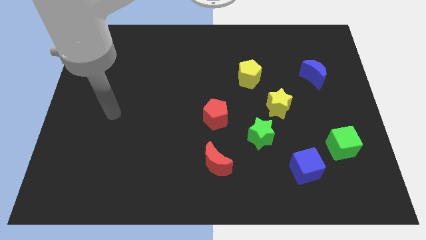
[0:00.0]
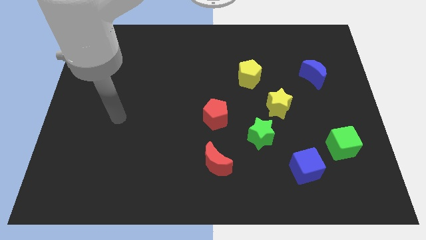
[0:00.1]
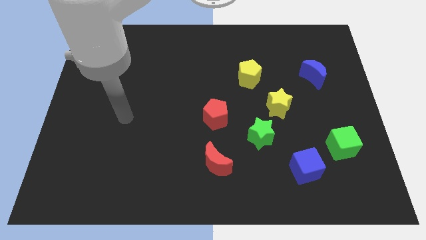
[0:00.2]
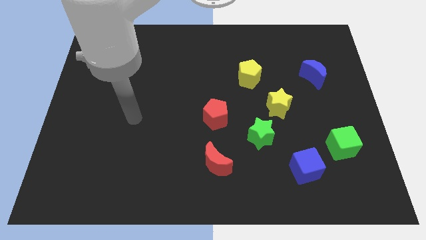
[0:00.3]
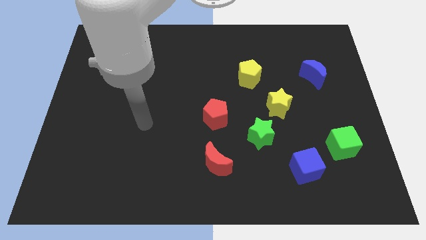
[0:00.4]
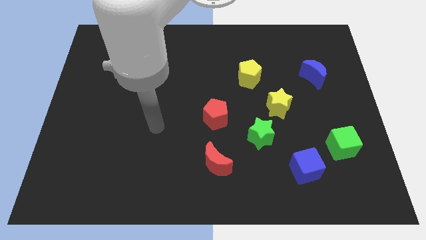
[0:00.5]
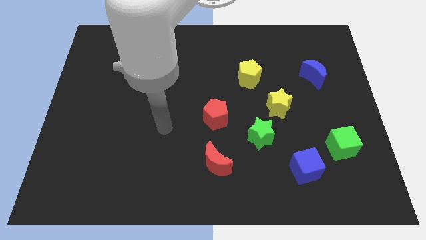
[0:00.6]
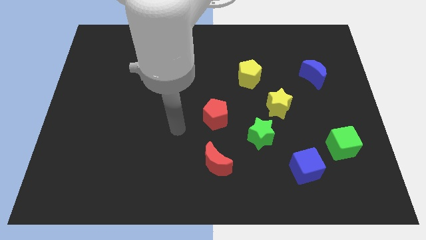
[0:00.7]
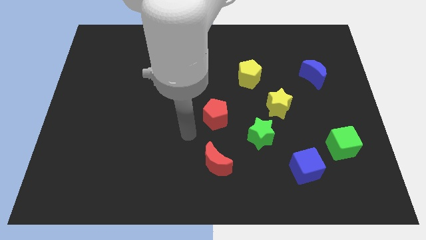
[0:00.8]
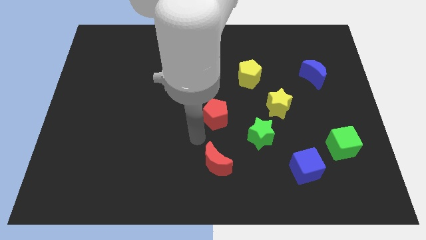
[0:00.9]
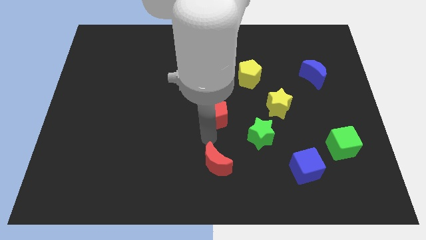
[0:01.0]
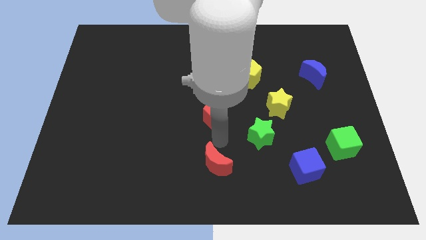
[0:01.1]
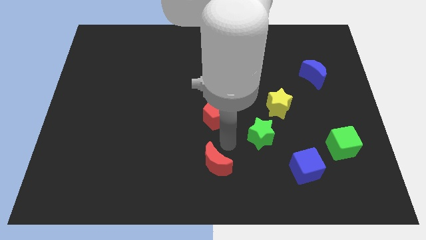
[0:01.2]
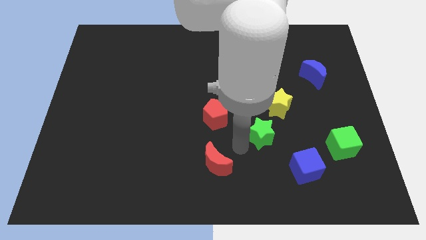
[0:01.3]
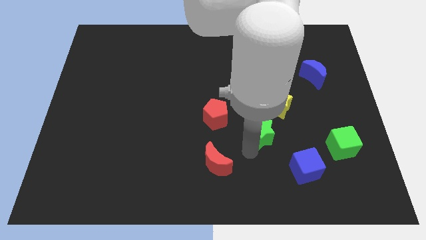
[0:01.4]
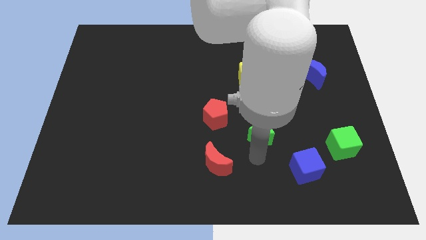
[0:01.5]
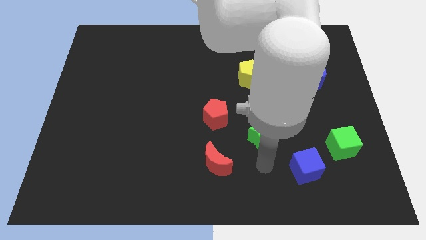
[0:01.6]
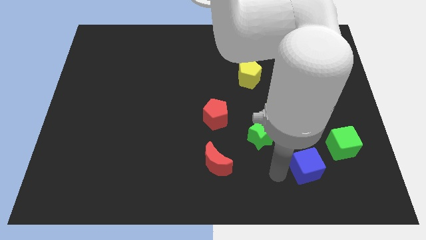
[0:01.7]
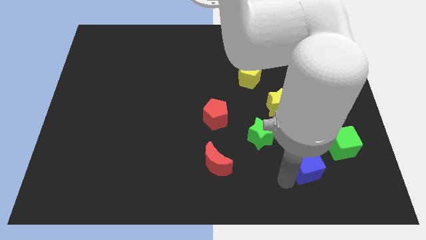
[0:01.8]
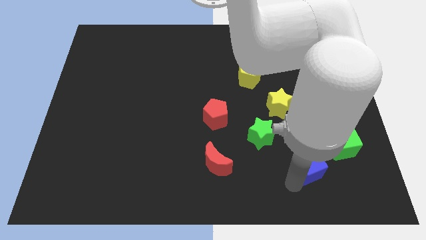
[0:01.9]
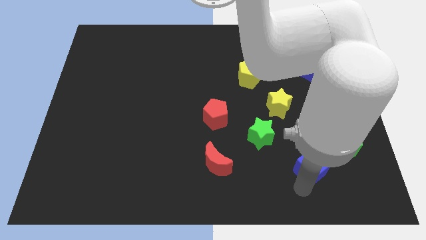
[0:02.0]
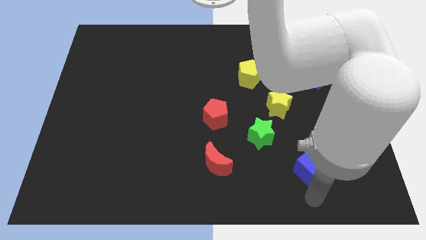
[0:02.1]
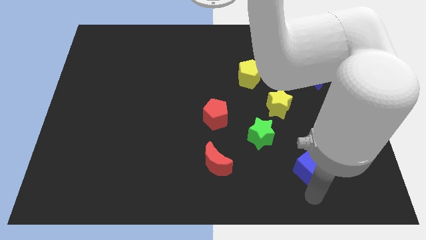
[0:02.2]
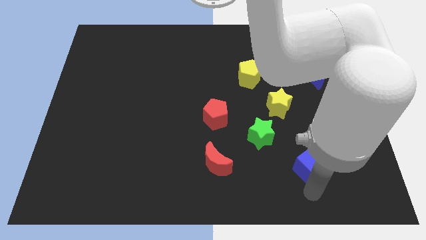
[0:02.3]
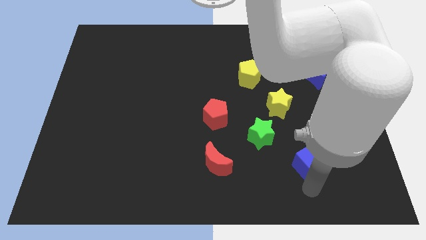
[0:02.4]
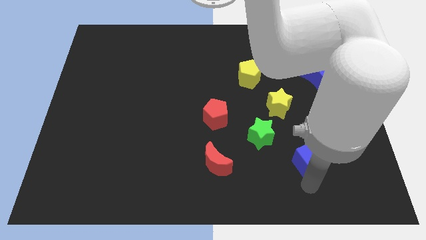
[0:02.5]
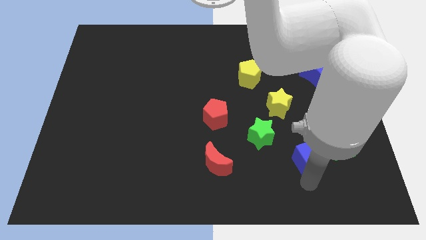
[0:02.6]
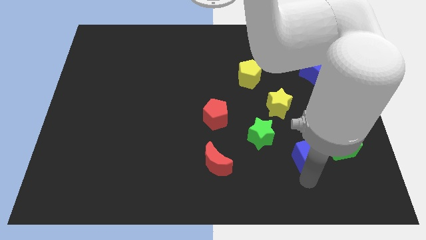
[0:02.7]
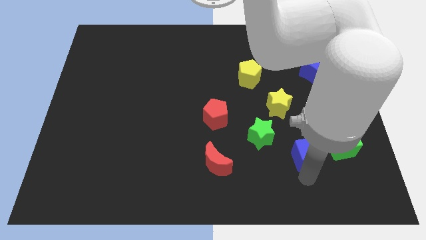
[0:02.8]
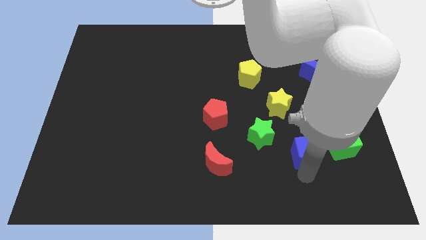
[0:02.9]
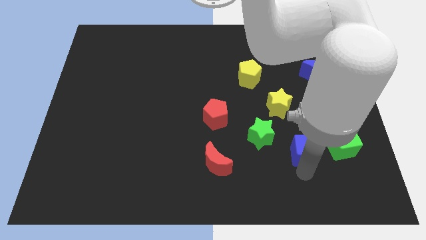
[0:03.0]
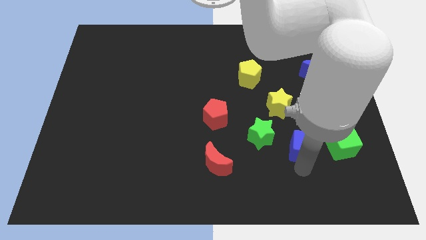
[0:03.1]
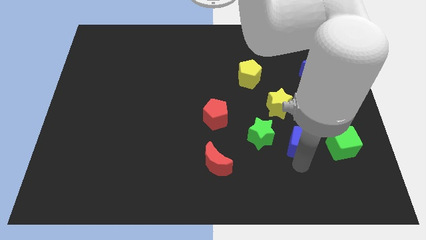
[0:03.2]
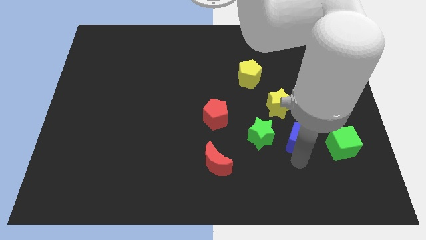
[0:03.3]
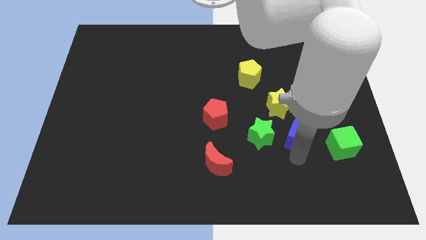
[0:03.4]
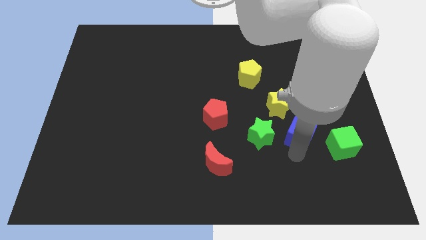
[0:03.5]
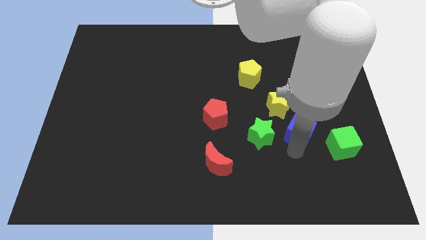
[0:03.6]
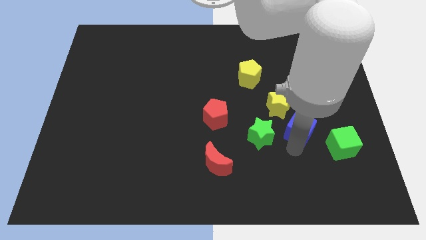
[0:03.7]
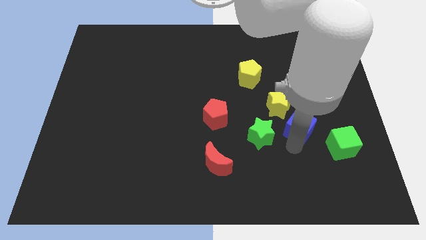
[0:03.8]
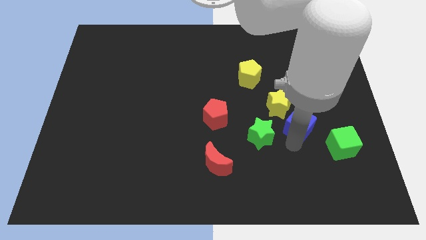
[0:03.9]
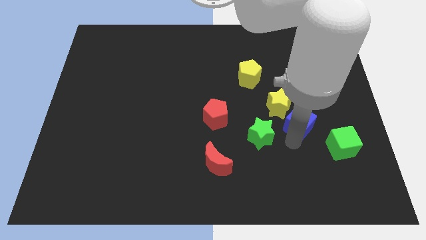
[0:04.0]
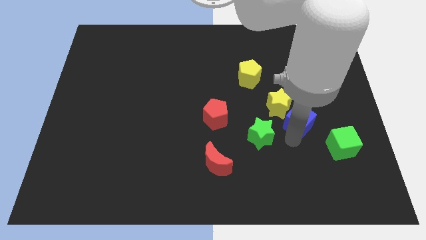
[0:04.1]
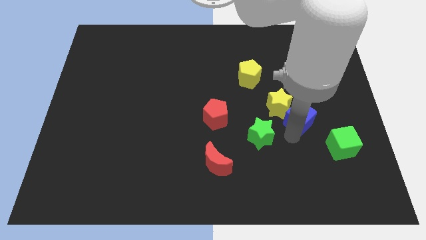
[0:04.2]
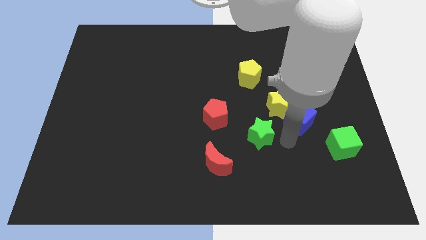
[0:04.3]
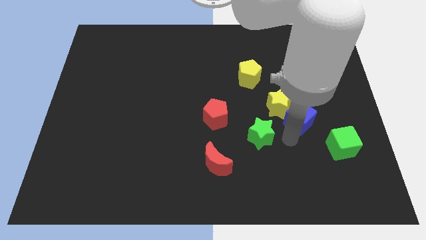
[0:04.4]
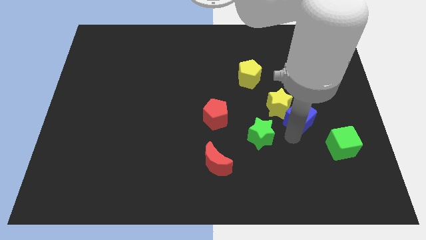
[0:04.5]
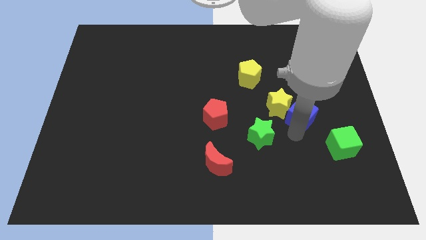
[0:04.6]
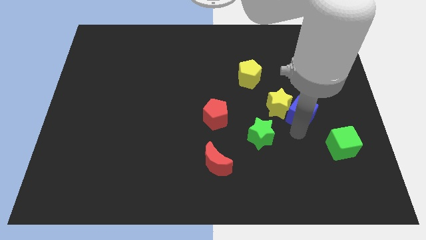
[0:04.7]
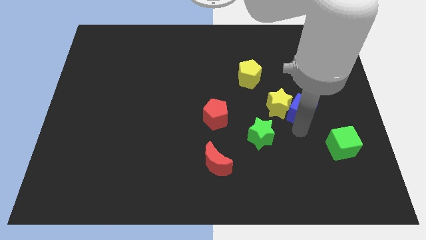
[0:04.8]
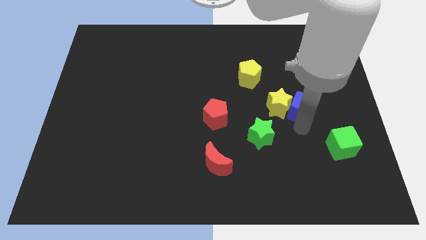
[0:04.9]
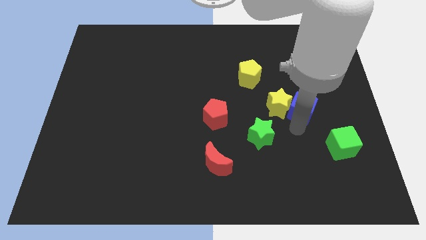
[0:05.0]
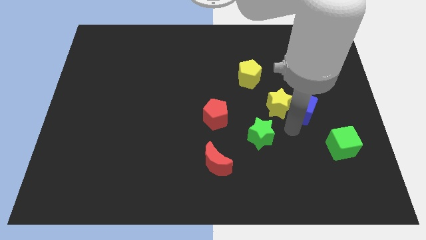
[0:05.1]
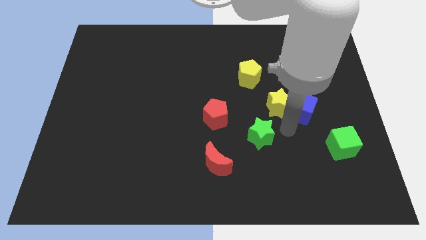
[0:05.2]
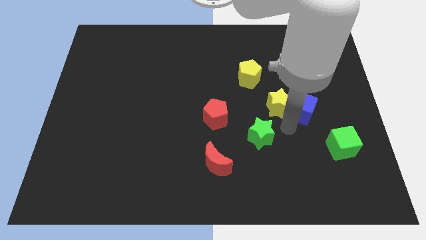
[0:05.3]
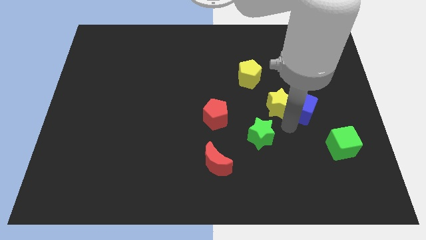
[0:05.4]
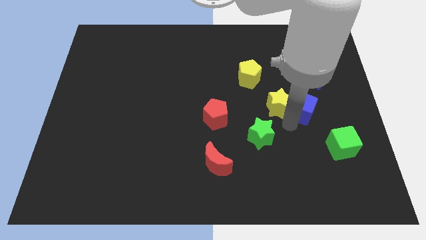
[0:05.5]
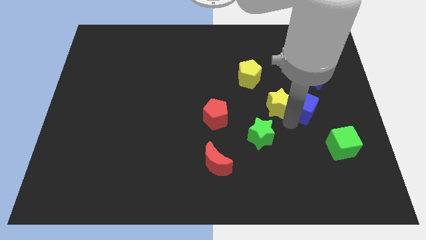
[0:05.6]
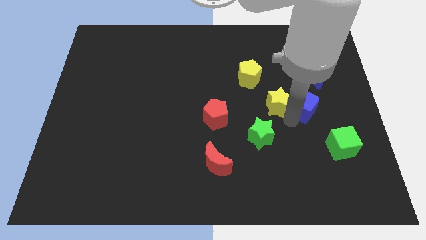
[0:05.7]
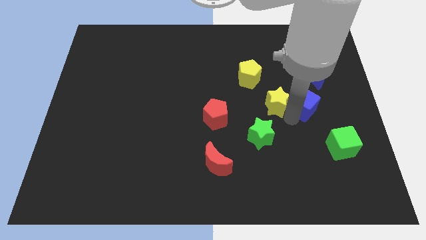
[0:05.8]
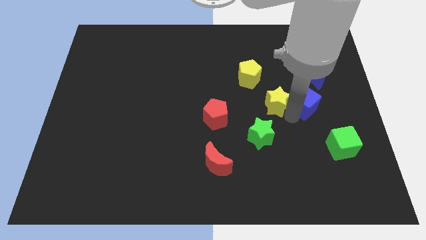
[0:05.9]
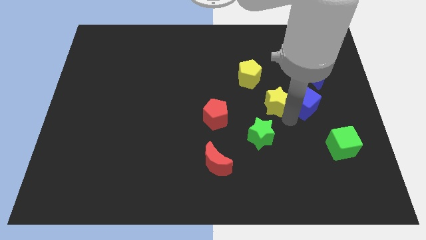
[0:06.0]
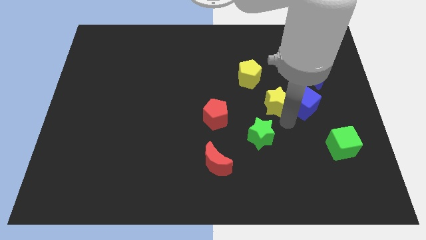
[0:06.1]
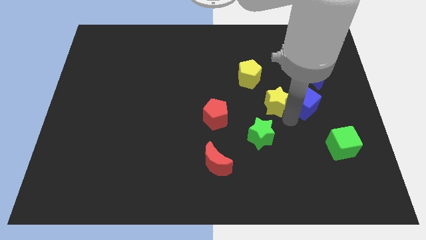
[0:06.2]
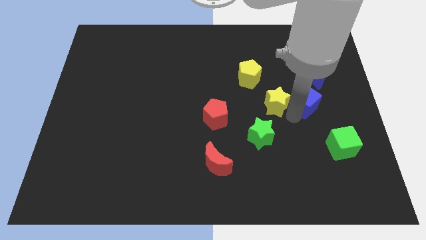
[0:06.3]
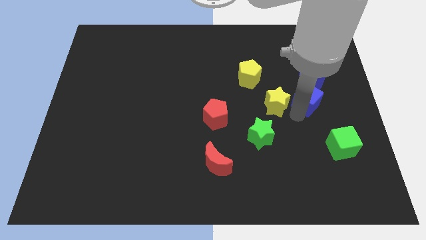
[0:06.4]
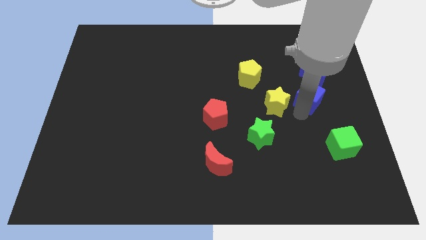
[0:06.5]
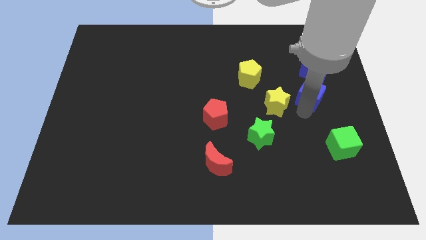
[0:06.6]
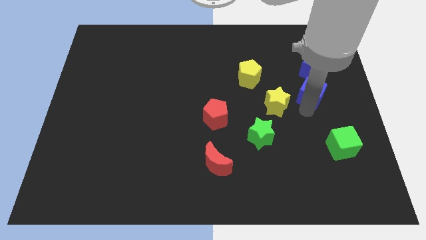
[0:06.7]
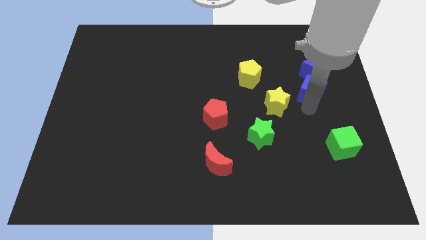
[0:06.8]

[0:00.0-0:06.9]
slide the blue cube to the blue moon

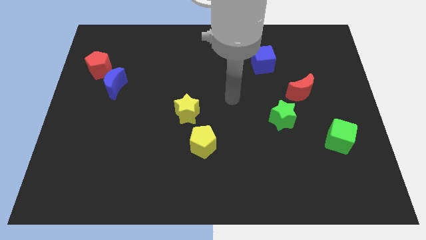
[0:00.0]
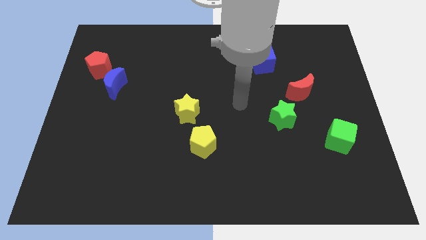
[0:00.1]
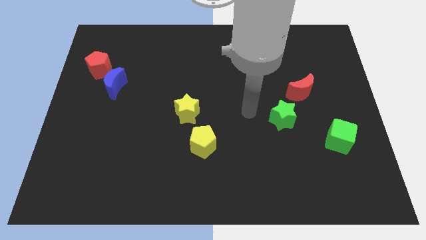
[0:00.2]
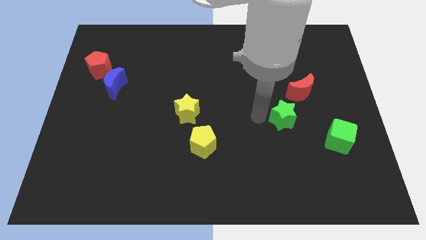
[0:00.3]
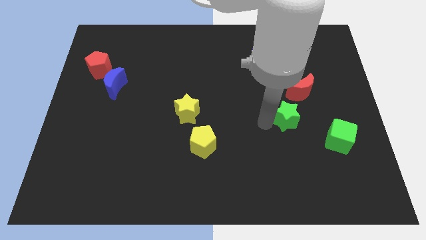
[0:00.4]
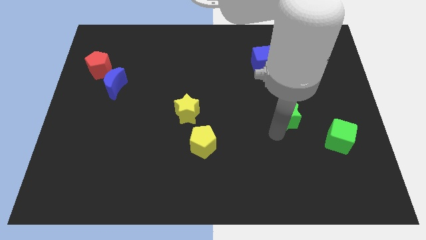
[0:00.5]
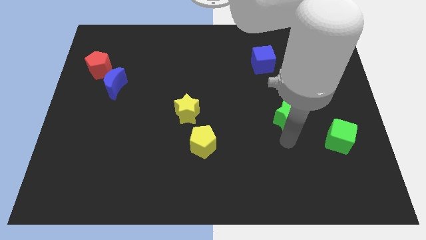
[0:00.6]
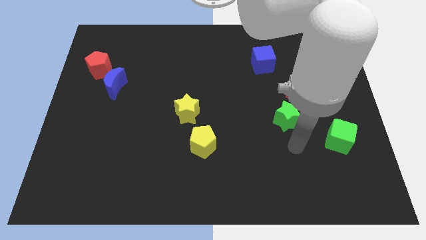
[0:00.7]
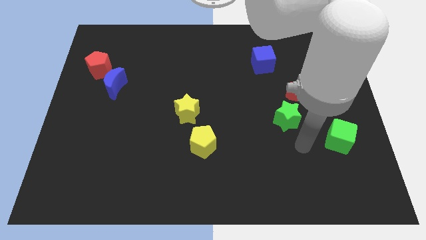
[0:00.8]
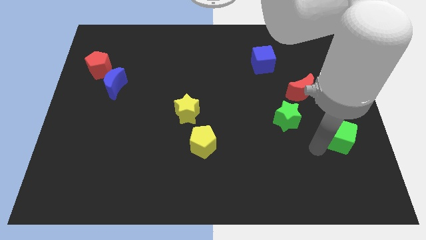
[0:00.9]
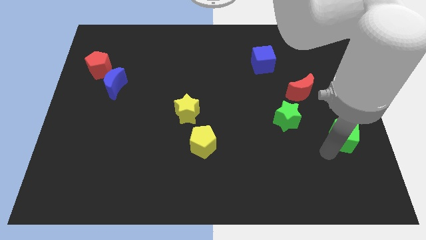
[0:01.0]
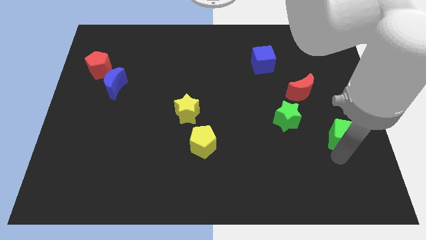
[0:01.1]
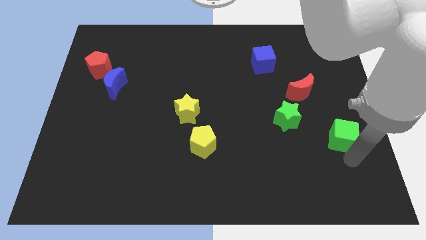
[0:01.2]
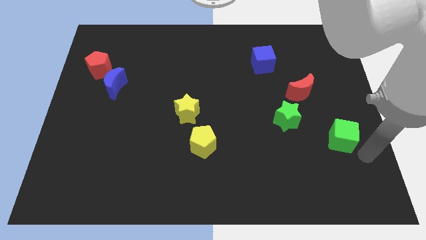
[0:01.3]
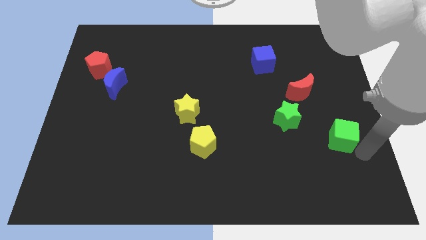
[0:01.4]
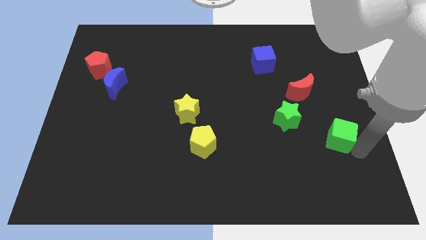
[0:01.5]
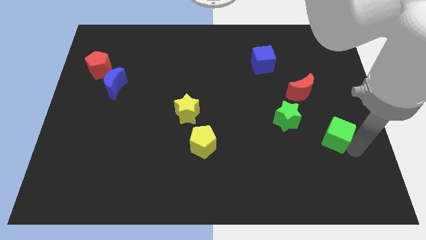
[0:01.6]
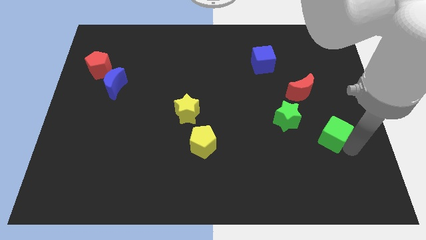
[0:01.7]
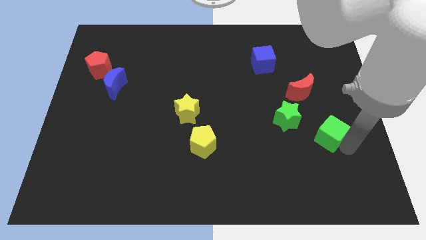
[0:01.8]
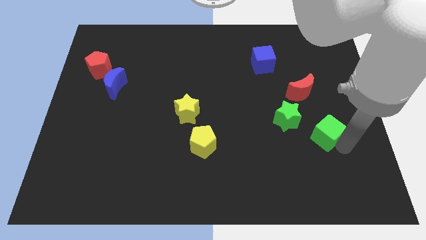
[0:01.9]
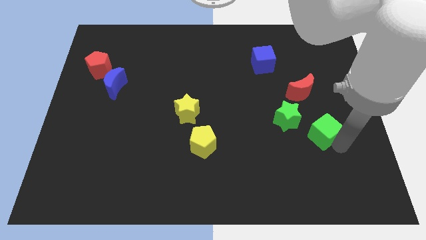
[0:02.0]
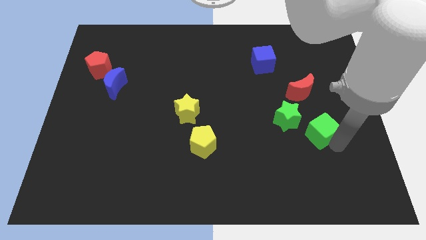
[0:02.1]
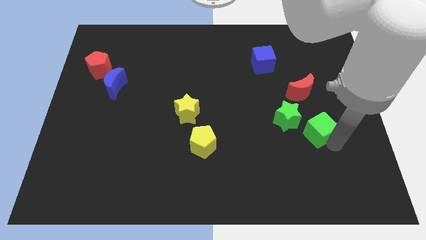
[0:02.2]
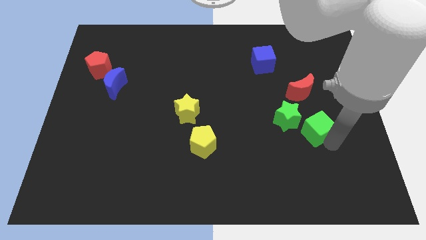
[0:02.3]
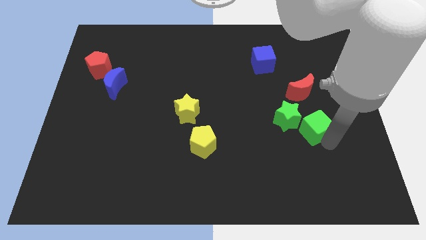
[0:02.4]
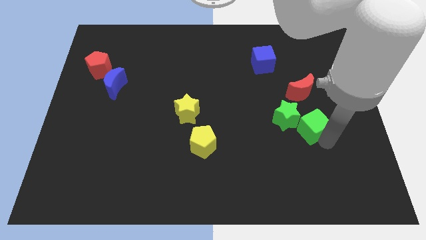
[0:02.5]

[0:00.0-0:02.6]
move the green cube to the green star
